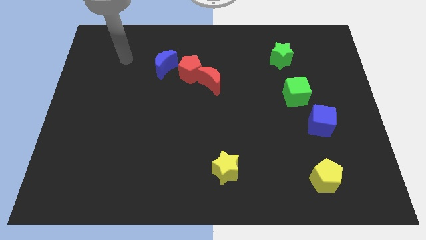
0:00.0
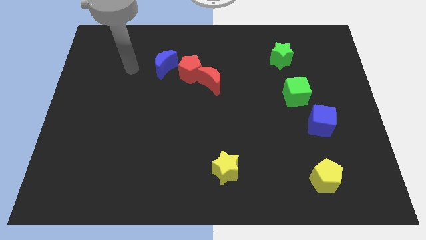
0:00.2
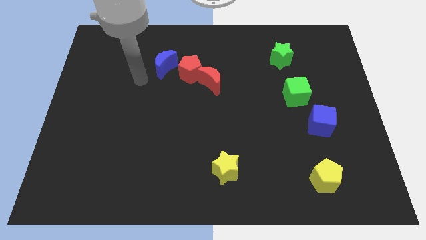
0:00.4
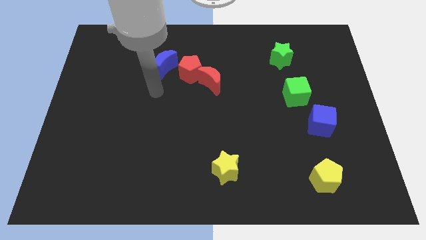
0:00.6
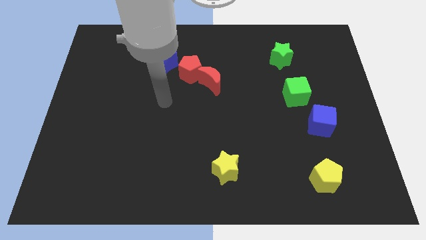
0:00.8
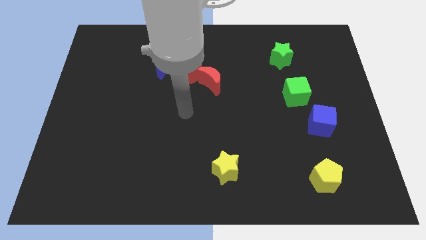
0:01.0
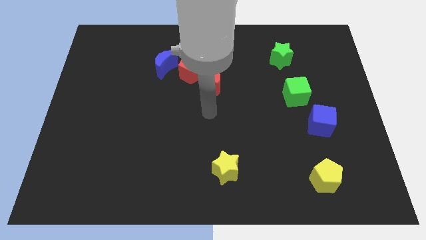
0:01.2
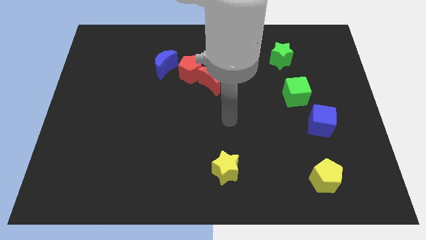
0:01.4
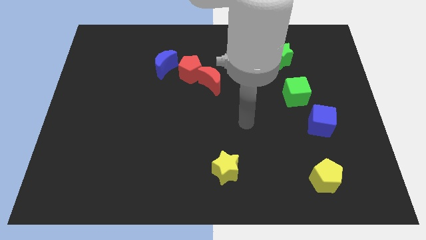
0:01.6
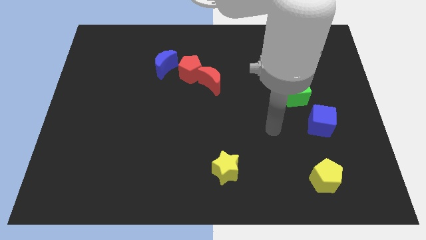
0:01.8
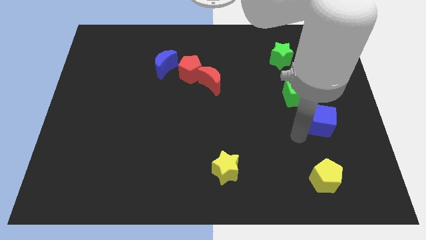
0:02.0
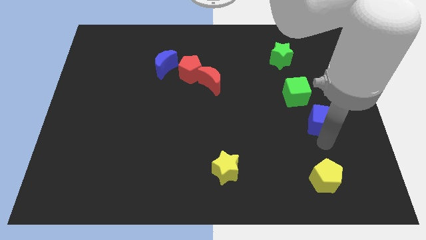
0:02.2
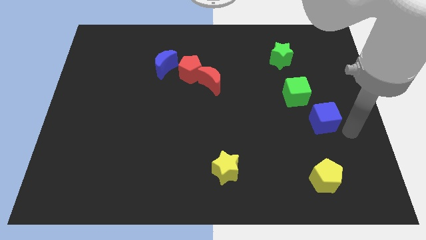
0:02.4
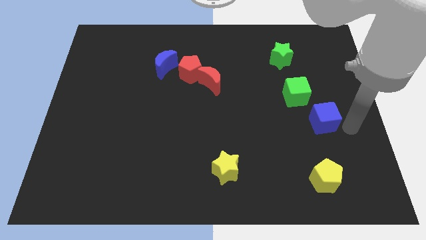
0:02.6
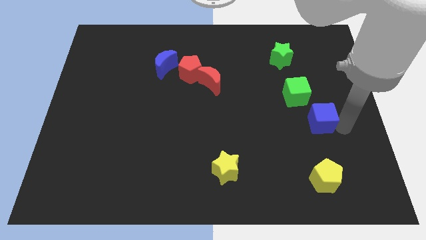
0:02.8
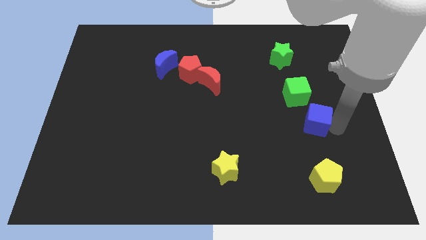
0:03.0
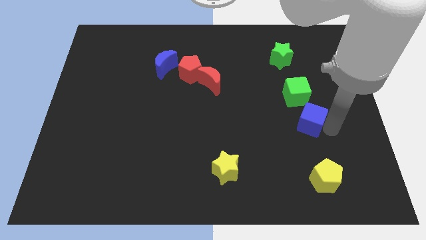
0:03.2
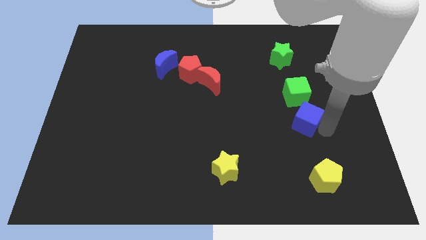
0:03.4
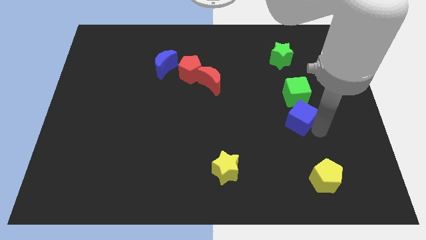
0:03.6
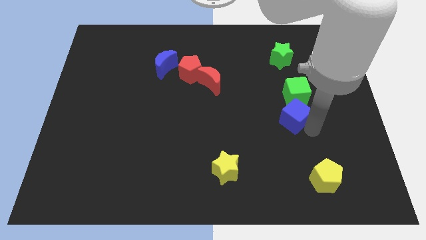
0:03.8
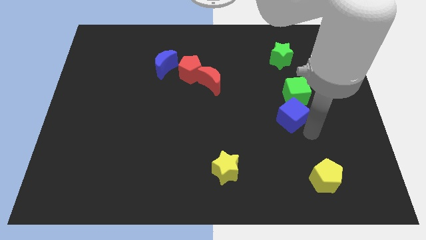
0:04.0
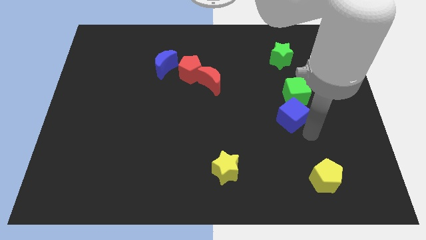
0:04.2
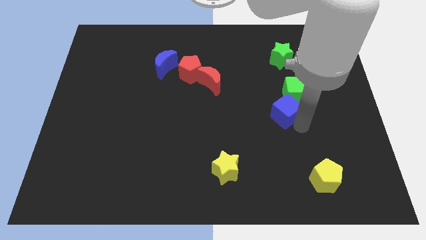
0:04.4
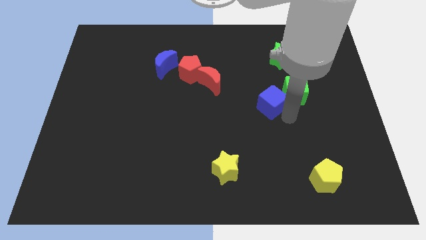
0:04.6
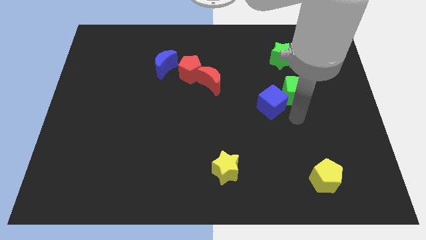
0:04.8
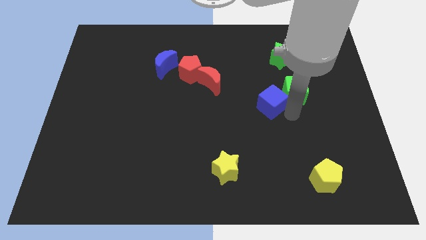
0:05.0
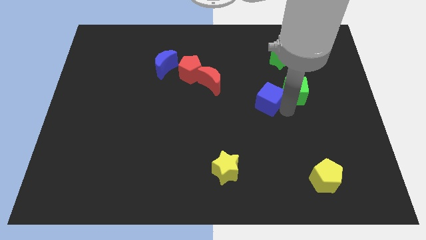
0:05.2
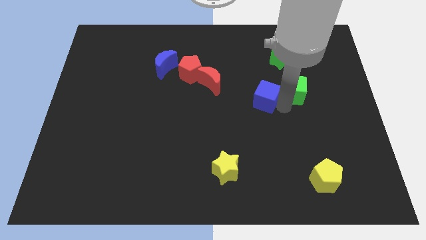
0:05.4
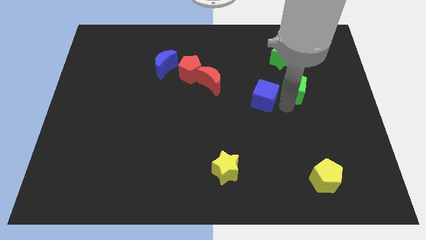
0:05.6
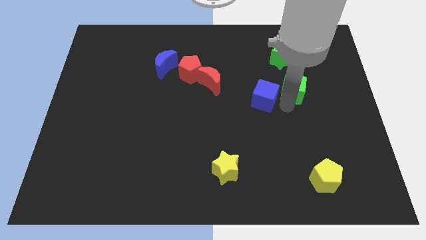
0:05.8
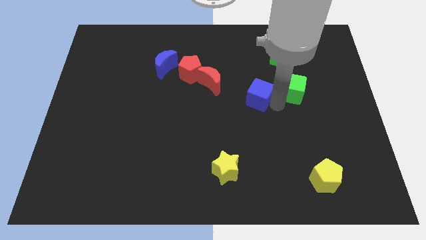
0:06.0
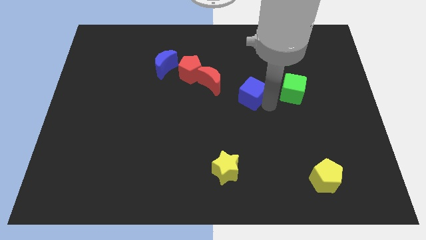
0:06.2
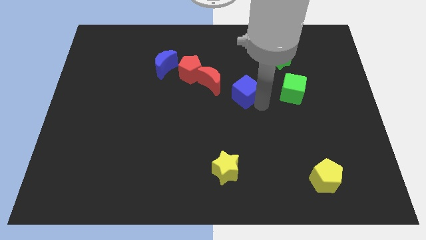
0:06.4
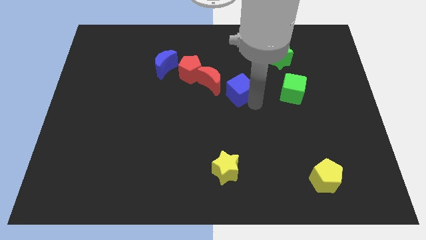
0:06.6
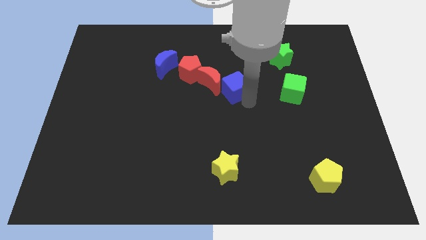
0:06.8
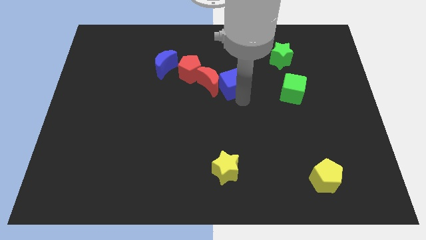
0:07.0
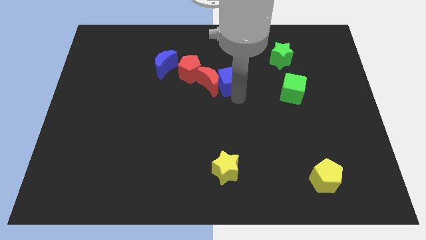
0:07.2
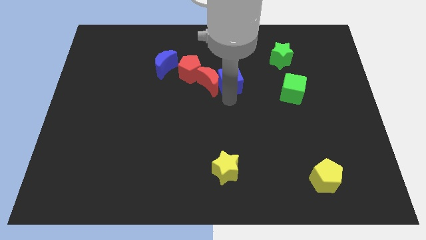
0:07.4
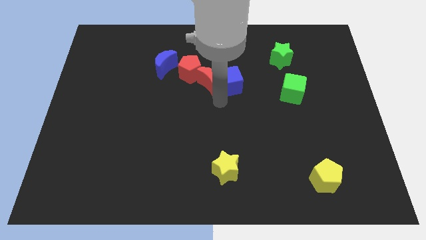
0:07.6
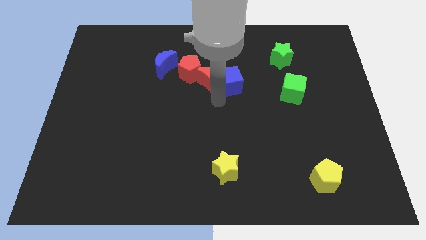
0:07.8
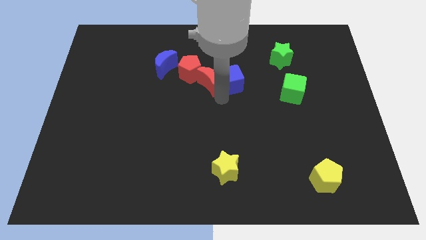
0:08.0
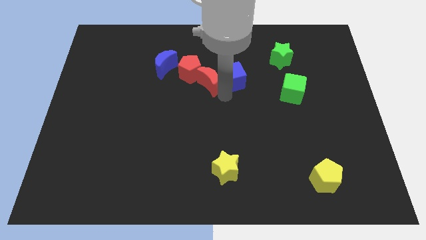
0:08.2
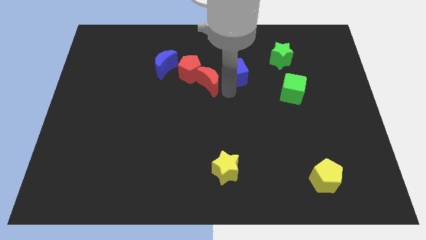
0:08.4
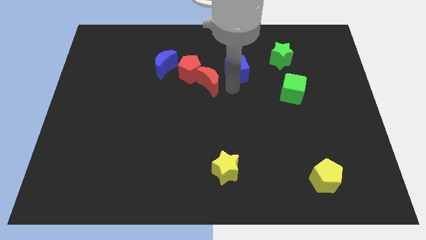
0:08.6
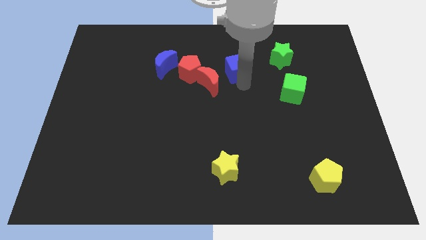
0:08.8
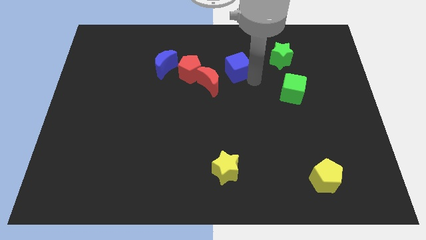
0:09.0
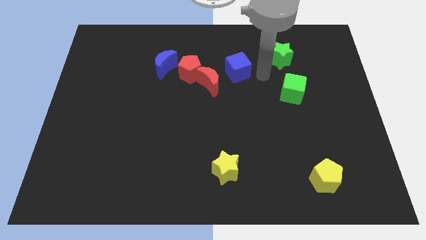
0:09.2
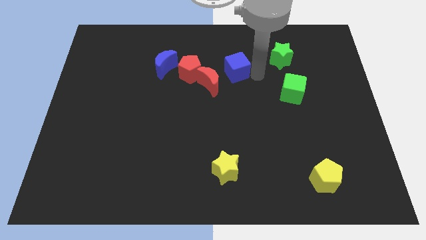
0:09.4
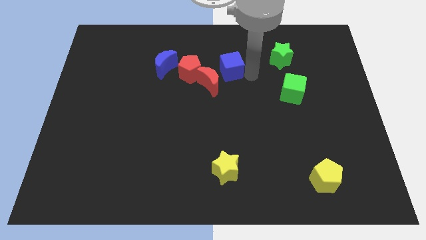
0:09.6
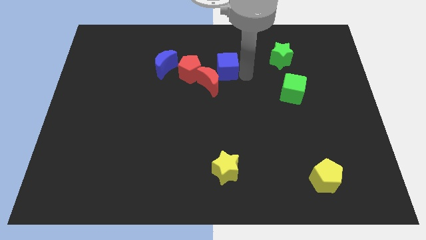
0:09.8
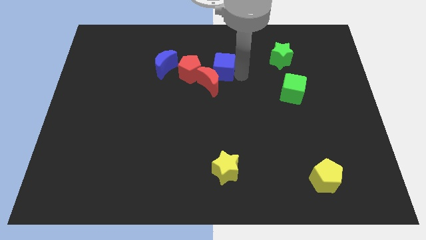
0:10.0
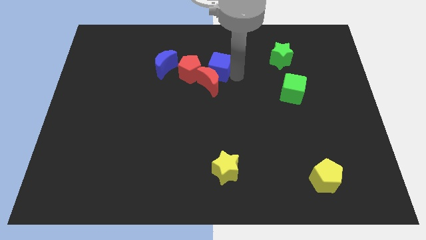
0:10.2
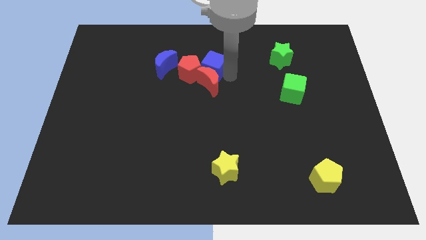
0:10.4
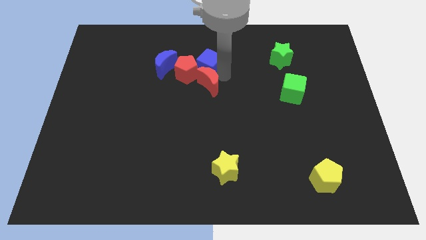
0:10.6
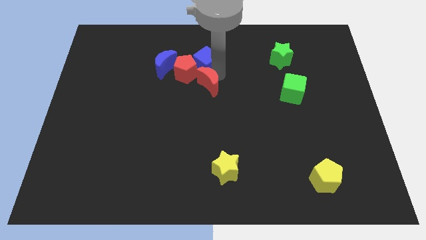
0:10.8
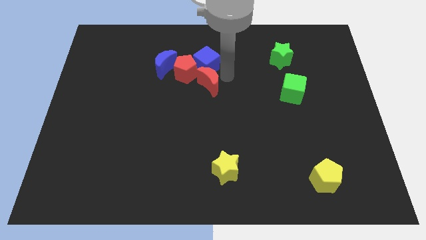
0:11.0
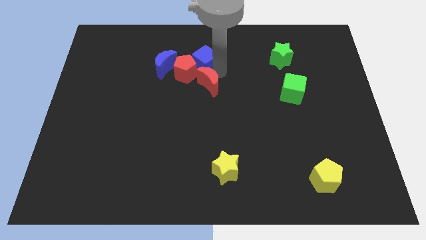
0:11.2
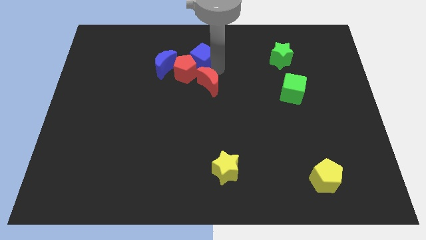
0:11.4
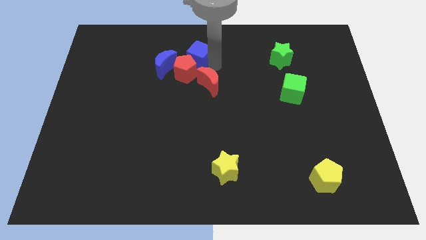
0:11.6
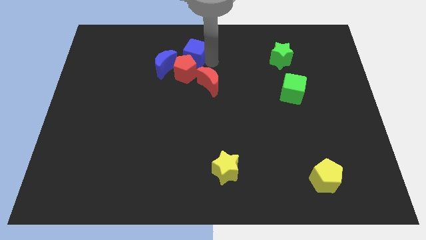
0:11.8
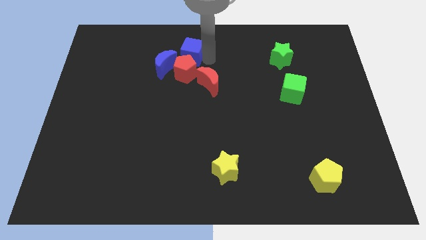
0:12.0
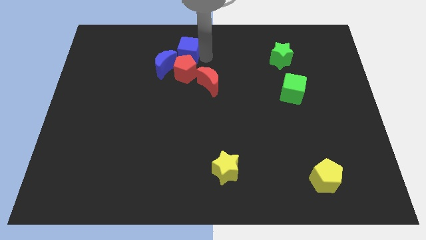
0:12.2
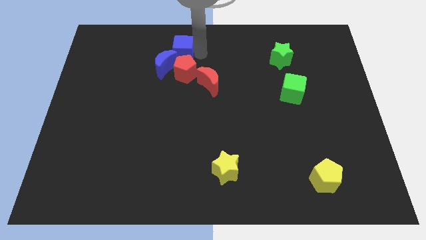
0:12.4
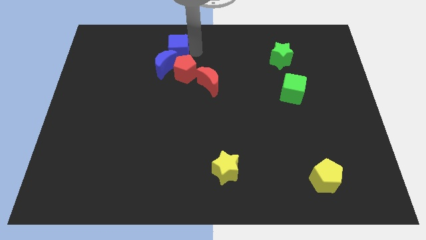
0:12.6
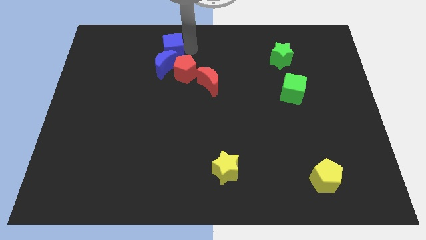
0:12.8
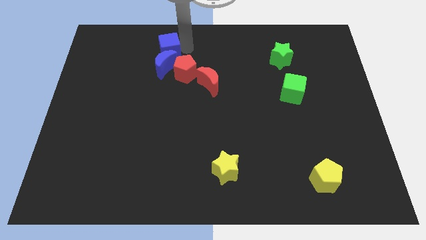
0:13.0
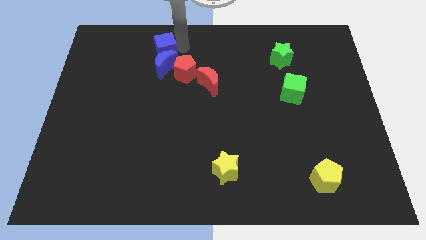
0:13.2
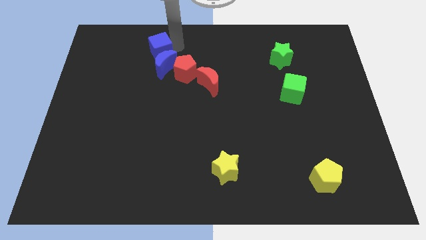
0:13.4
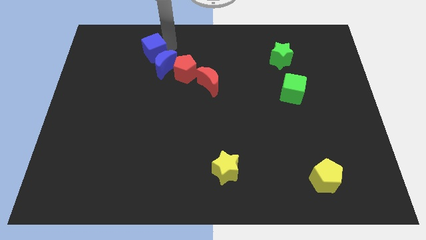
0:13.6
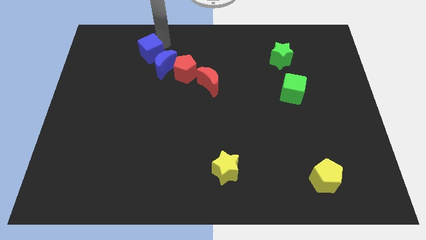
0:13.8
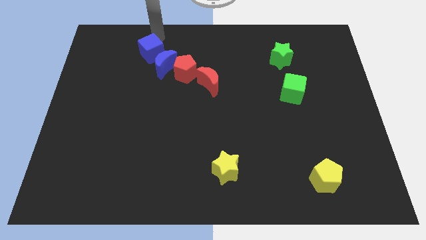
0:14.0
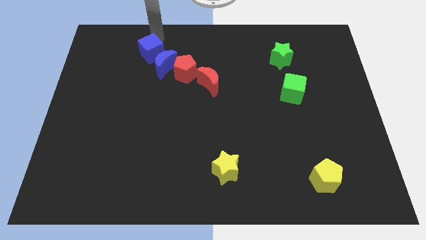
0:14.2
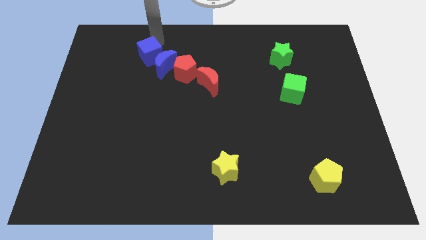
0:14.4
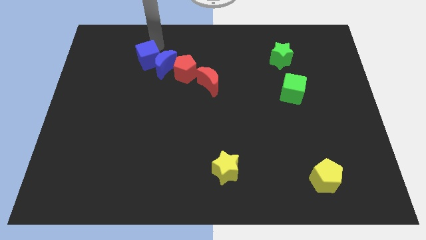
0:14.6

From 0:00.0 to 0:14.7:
push the blue cube just left of the red pentagon
